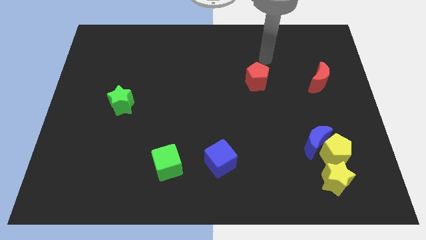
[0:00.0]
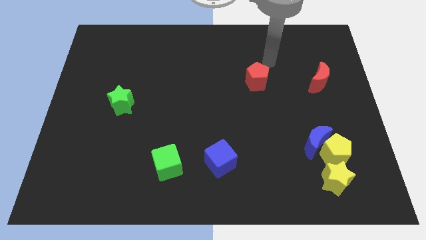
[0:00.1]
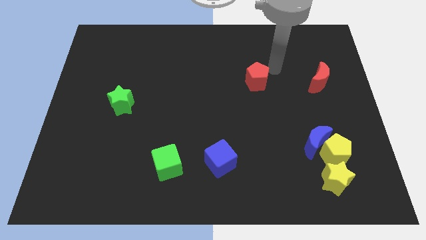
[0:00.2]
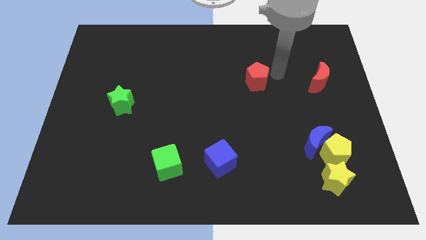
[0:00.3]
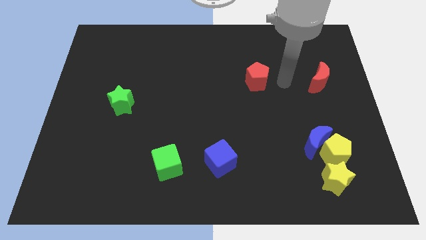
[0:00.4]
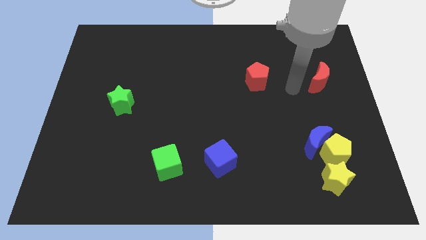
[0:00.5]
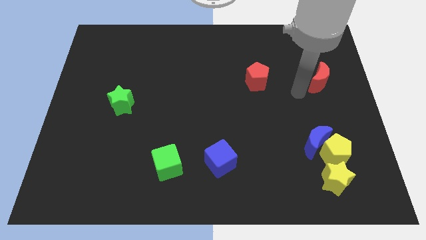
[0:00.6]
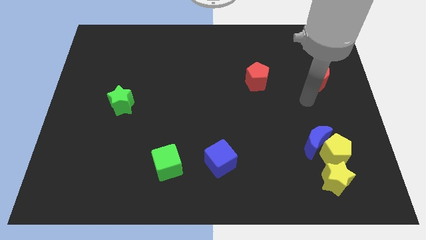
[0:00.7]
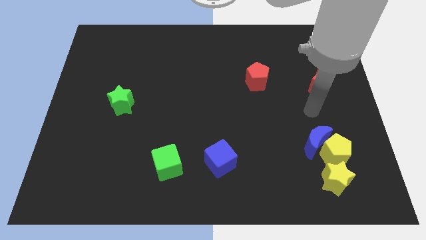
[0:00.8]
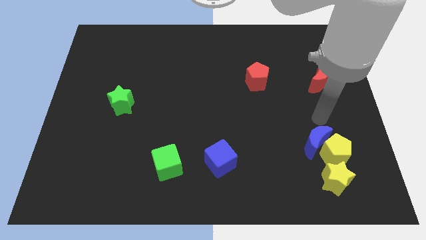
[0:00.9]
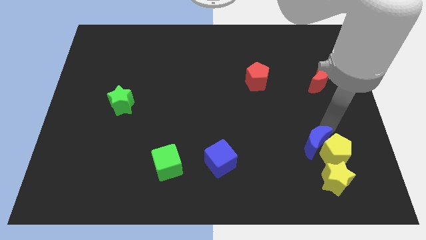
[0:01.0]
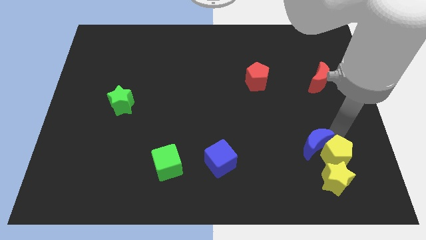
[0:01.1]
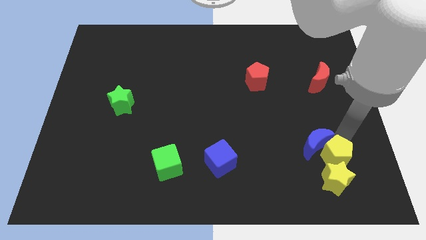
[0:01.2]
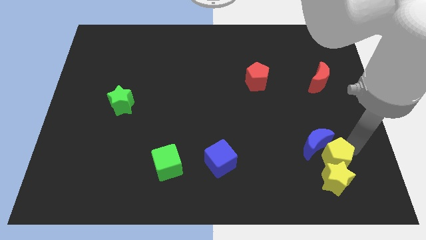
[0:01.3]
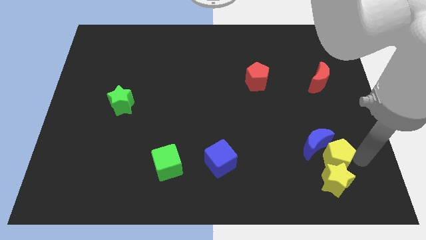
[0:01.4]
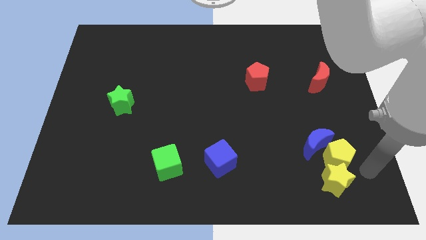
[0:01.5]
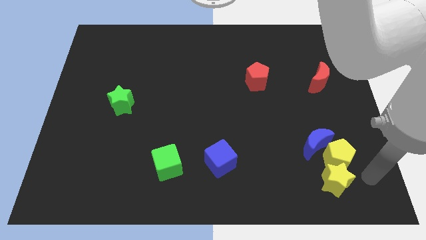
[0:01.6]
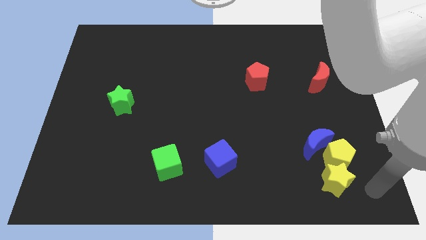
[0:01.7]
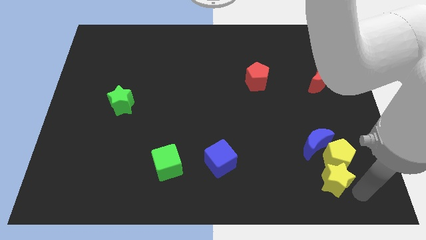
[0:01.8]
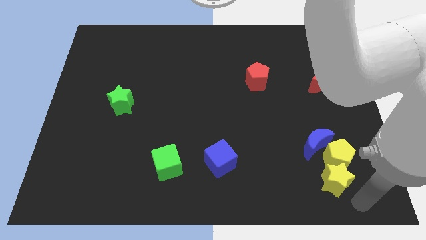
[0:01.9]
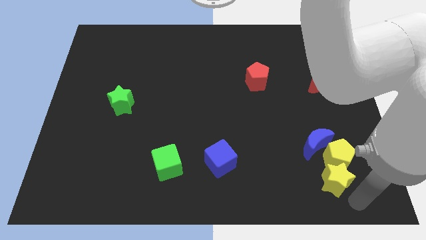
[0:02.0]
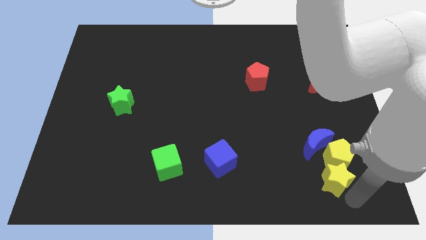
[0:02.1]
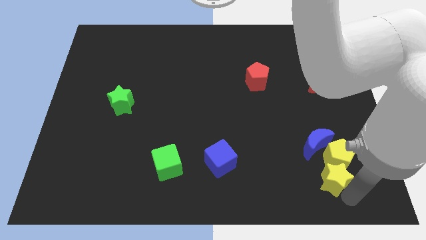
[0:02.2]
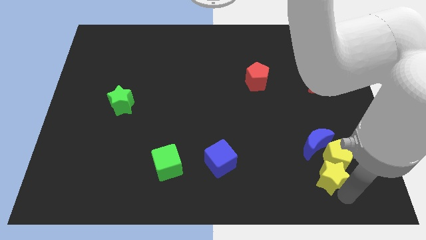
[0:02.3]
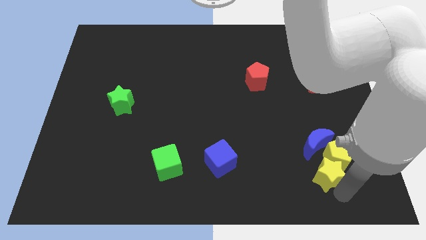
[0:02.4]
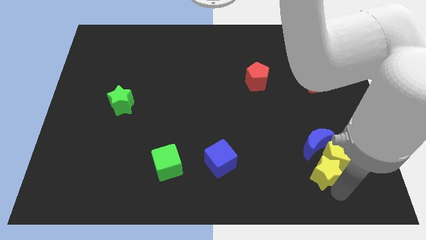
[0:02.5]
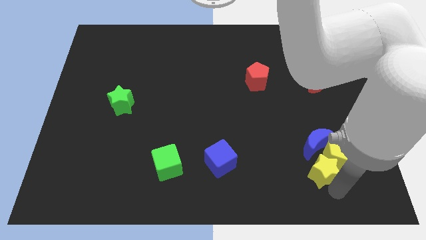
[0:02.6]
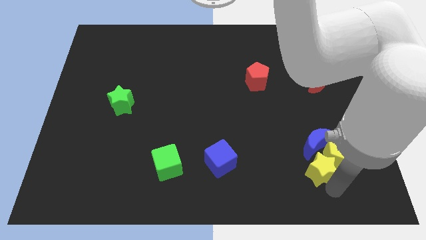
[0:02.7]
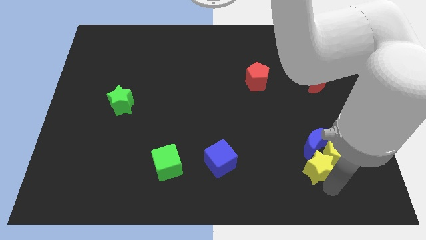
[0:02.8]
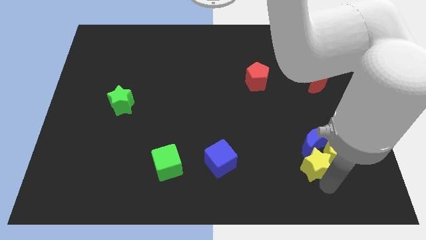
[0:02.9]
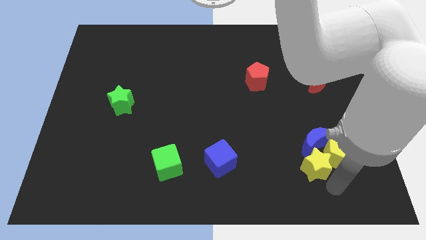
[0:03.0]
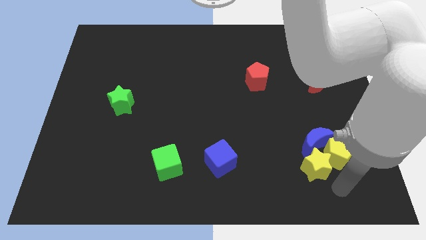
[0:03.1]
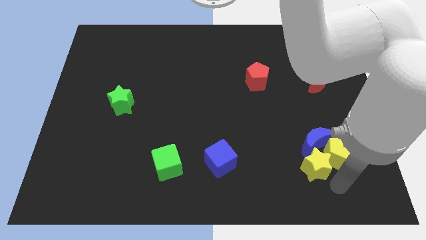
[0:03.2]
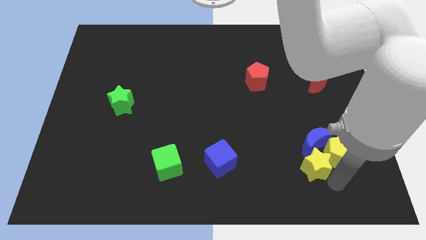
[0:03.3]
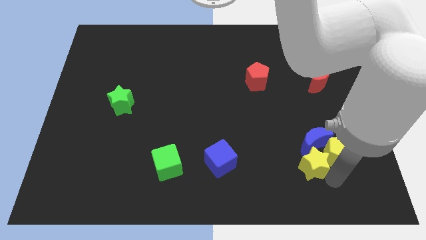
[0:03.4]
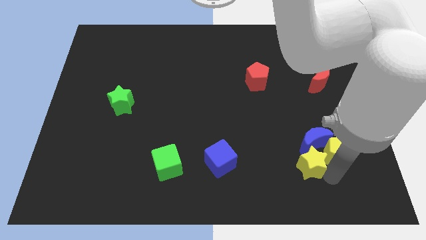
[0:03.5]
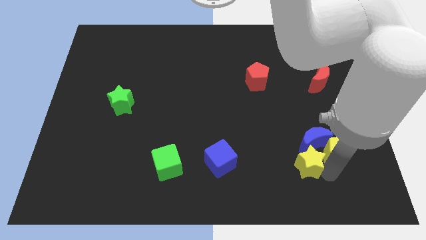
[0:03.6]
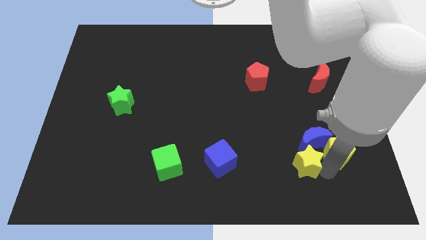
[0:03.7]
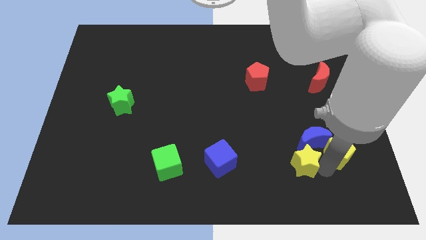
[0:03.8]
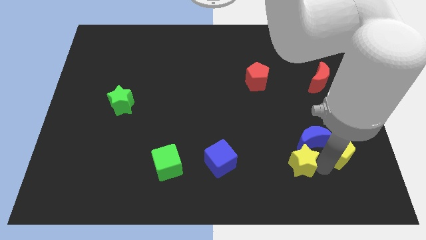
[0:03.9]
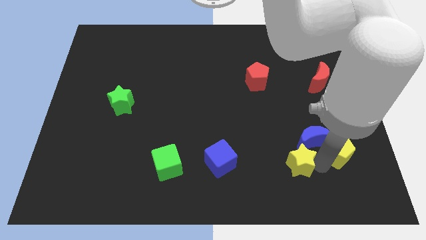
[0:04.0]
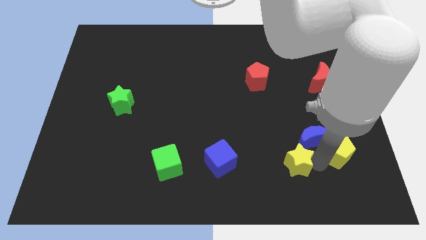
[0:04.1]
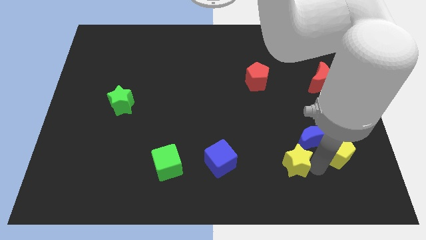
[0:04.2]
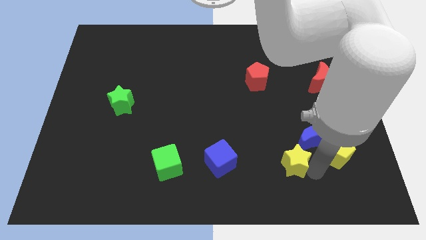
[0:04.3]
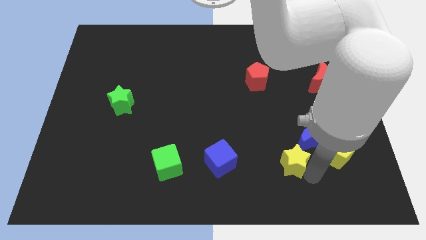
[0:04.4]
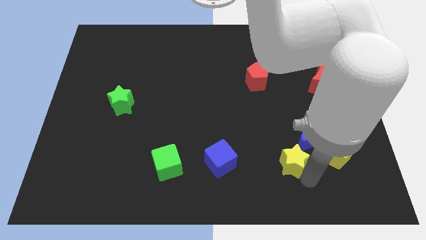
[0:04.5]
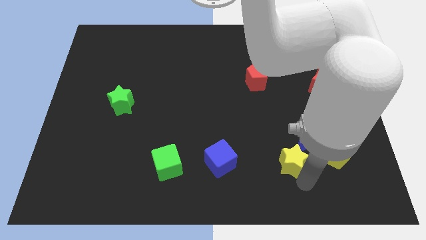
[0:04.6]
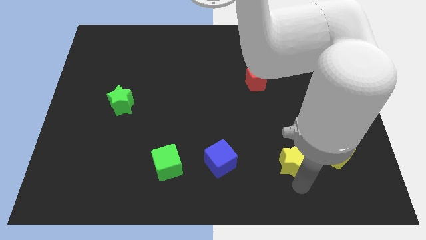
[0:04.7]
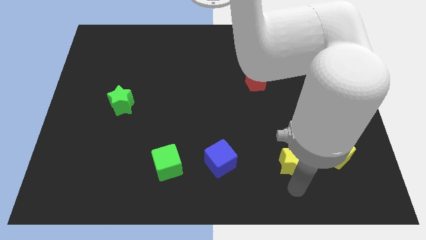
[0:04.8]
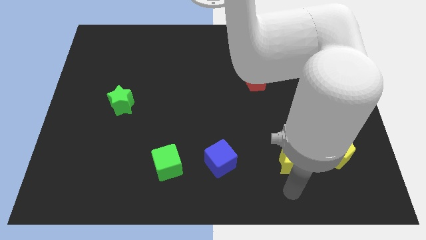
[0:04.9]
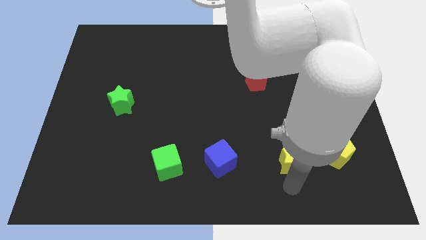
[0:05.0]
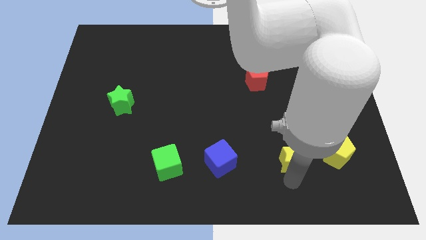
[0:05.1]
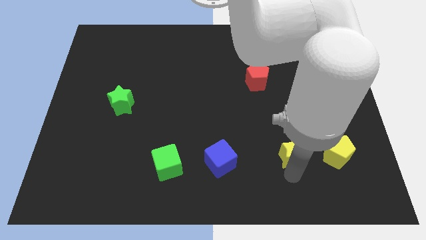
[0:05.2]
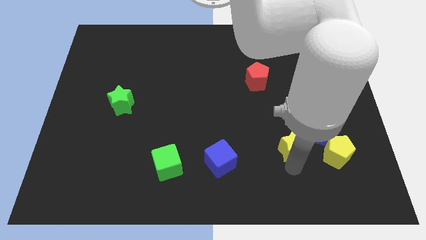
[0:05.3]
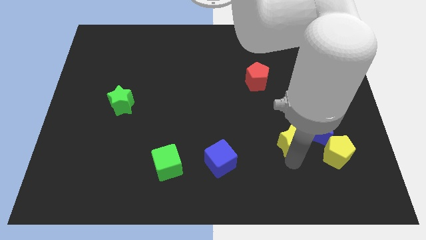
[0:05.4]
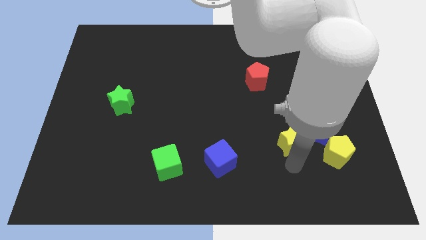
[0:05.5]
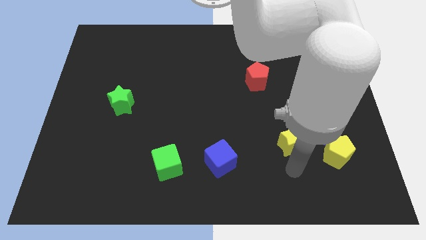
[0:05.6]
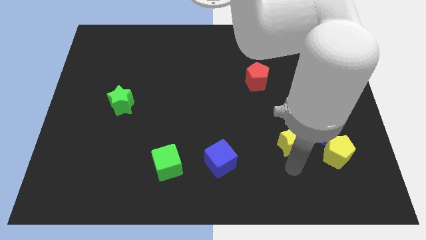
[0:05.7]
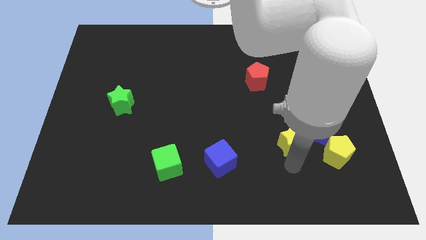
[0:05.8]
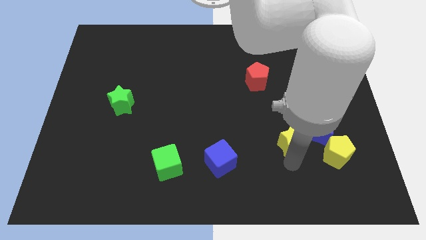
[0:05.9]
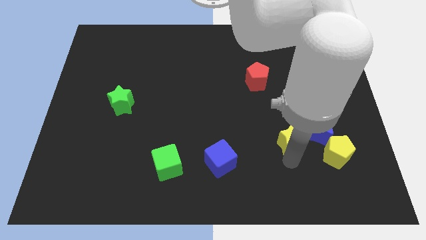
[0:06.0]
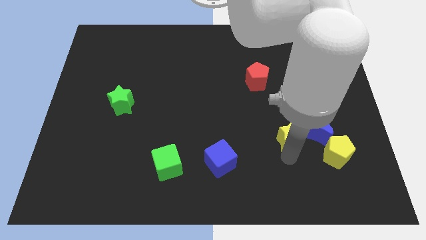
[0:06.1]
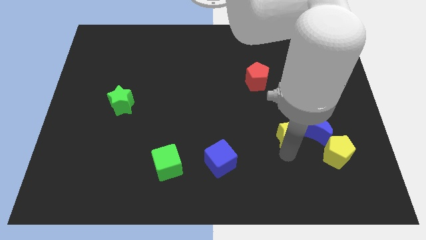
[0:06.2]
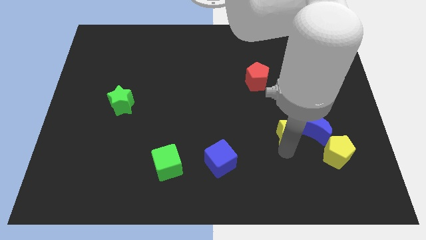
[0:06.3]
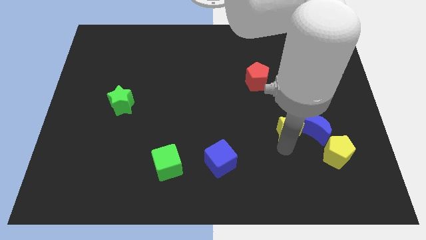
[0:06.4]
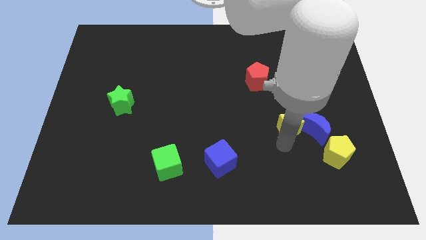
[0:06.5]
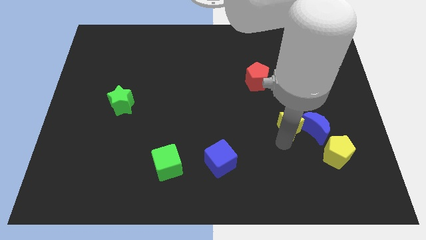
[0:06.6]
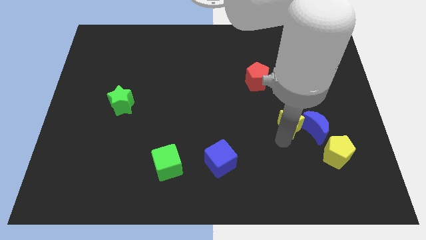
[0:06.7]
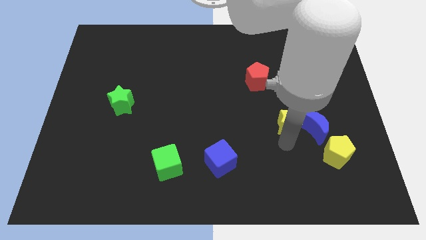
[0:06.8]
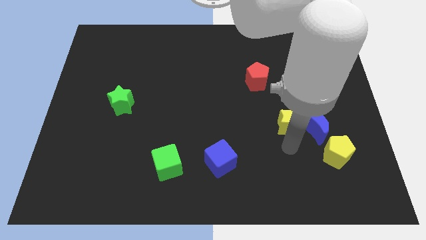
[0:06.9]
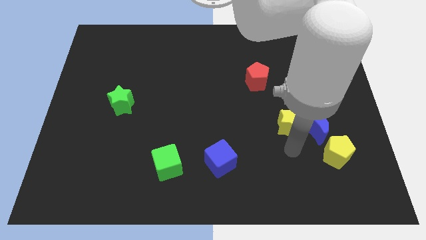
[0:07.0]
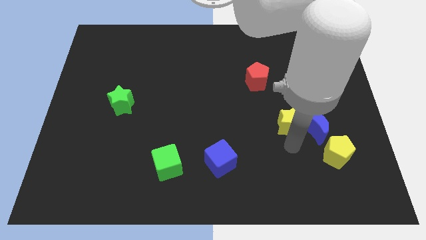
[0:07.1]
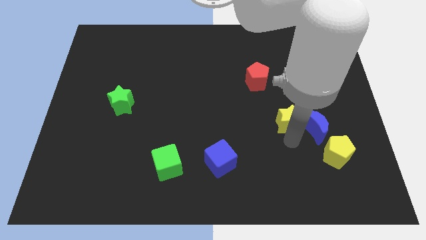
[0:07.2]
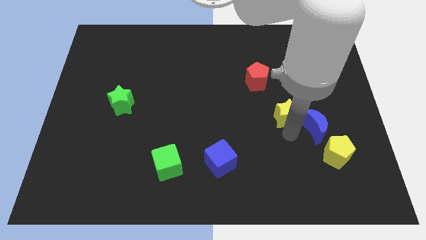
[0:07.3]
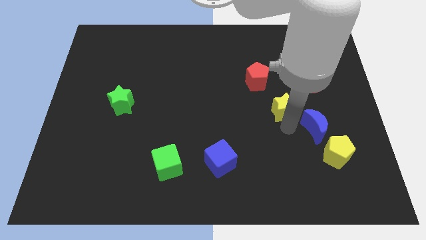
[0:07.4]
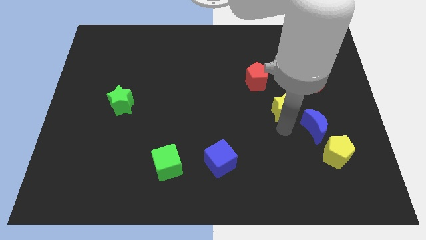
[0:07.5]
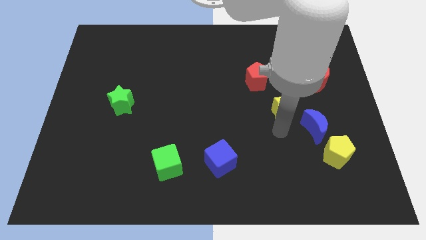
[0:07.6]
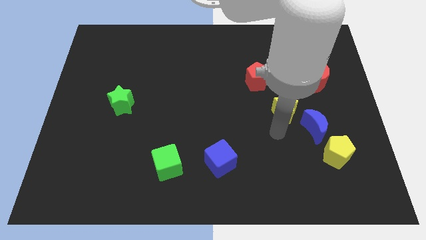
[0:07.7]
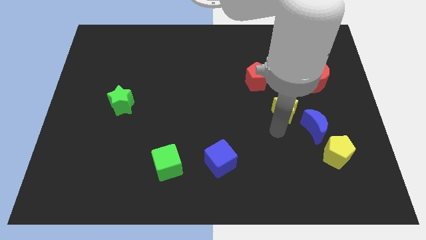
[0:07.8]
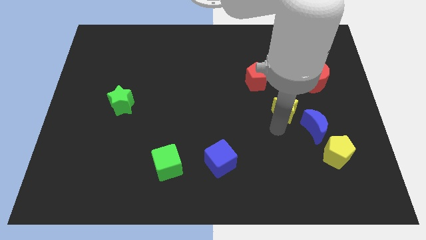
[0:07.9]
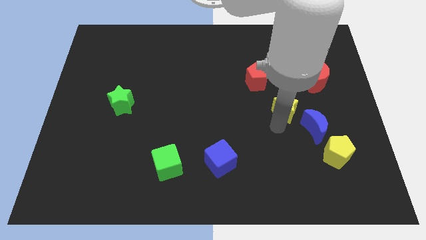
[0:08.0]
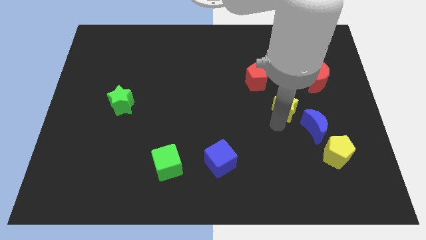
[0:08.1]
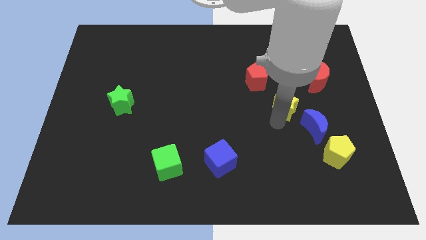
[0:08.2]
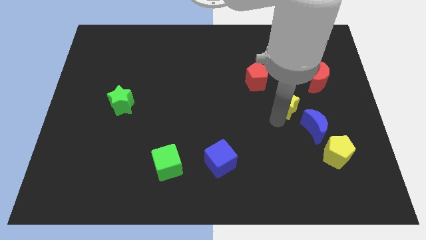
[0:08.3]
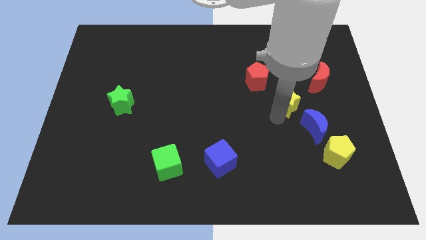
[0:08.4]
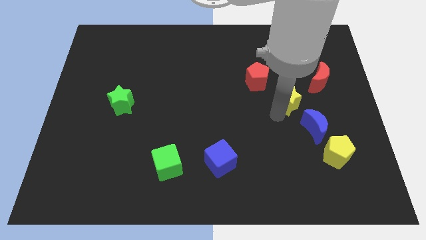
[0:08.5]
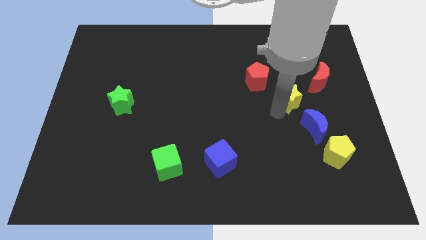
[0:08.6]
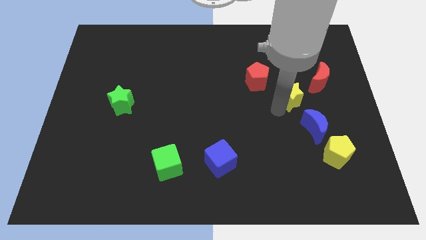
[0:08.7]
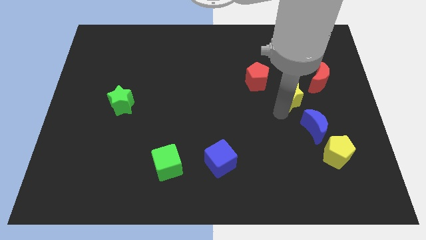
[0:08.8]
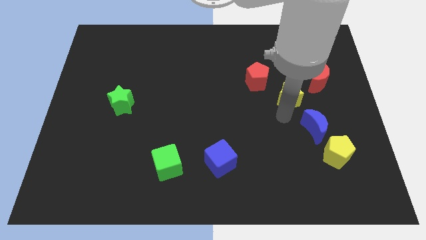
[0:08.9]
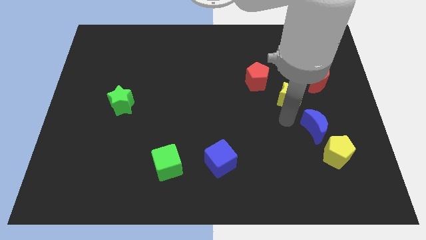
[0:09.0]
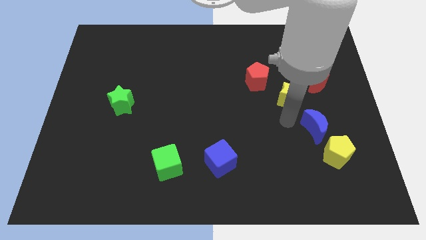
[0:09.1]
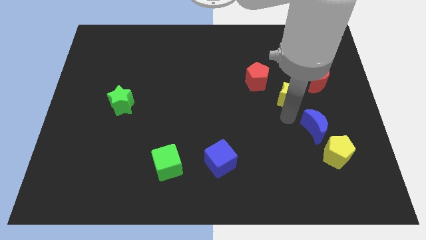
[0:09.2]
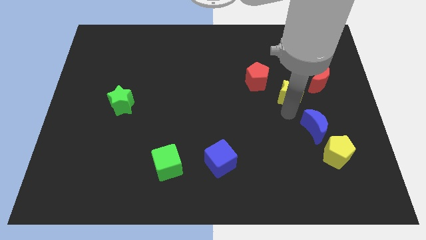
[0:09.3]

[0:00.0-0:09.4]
move the yellow star upwards
